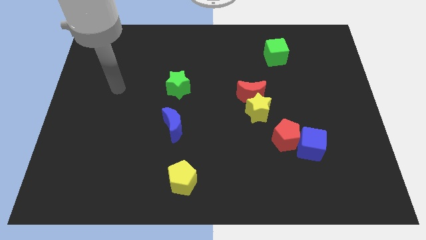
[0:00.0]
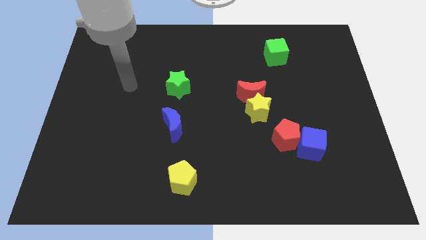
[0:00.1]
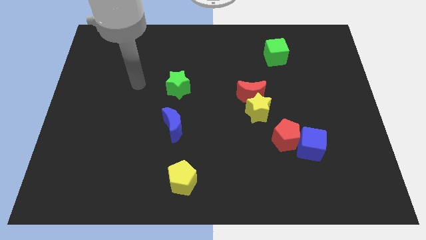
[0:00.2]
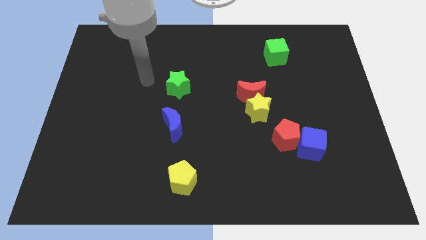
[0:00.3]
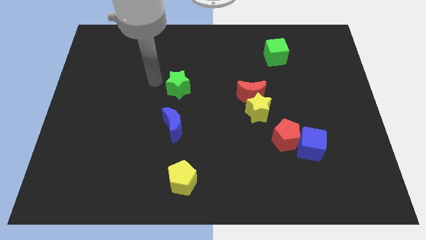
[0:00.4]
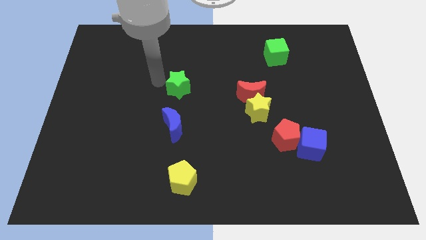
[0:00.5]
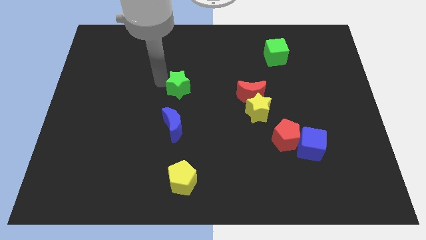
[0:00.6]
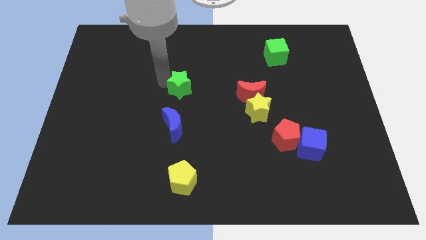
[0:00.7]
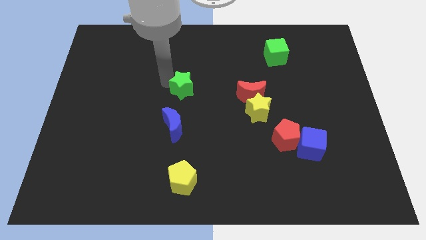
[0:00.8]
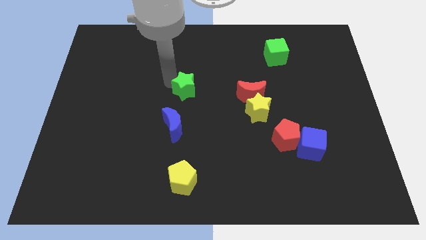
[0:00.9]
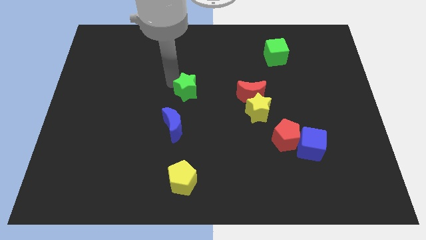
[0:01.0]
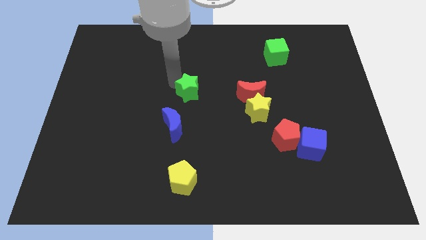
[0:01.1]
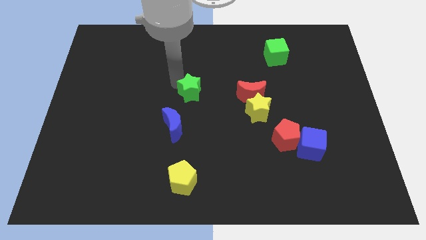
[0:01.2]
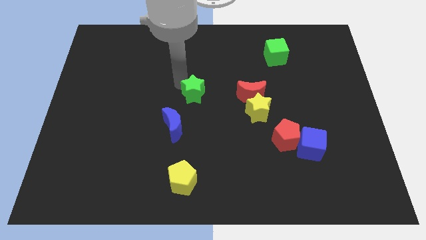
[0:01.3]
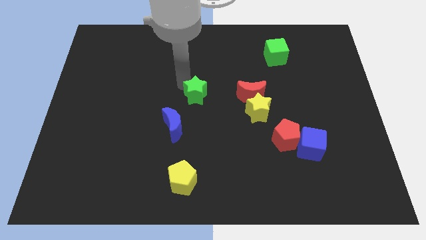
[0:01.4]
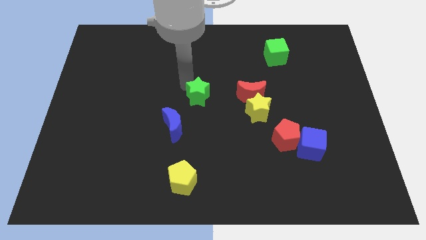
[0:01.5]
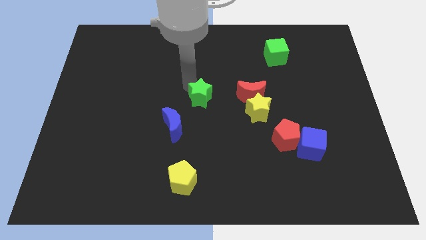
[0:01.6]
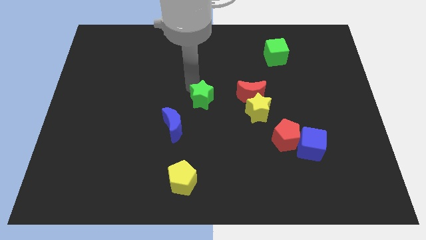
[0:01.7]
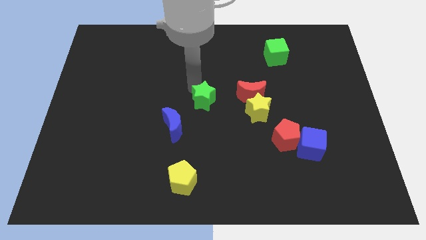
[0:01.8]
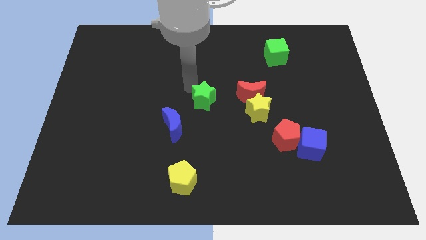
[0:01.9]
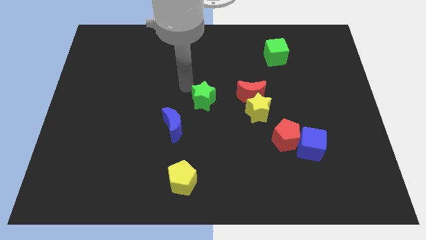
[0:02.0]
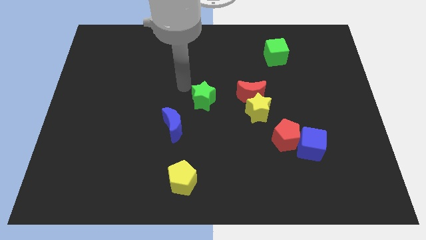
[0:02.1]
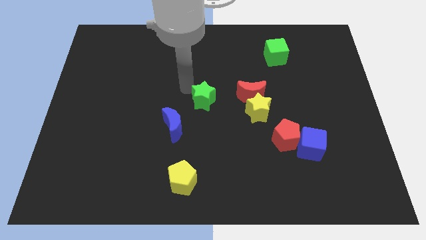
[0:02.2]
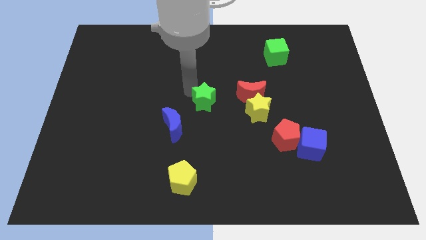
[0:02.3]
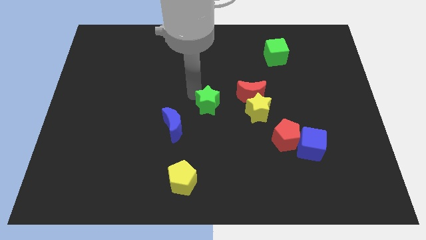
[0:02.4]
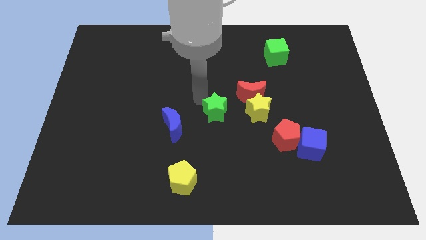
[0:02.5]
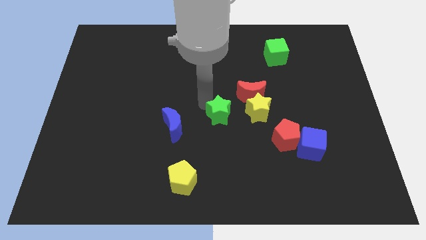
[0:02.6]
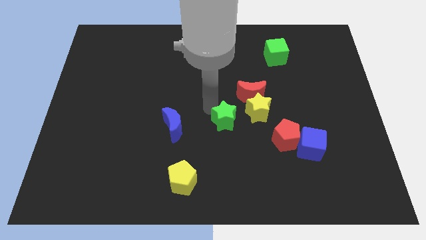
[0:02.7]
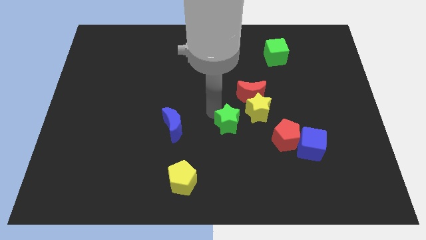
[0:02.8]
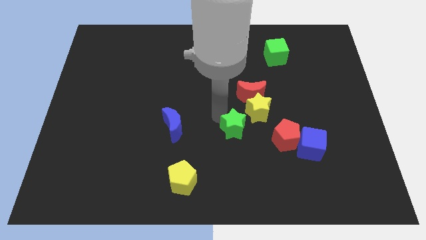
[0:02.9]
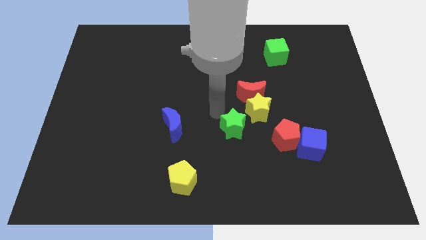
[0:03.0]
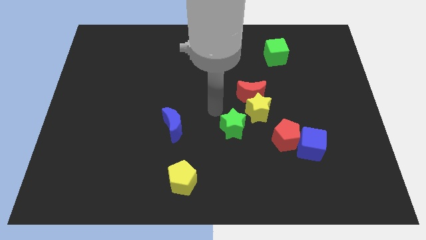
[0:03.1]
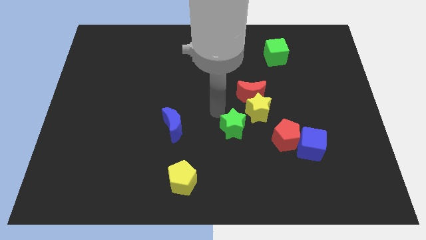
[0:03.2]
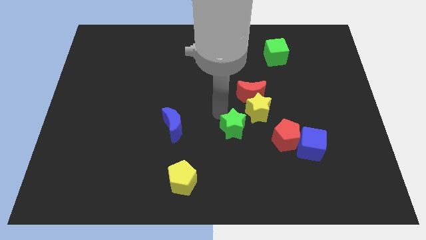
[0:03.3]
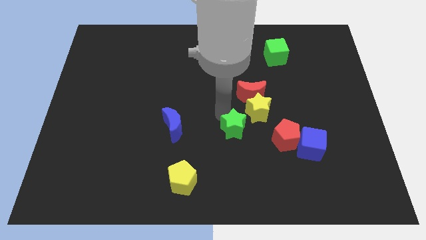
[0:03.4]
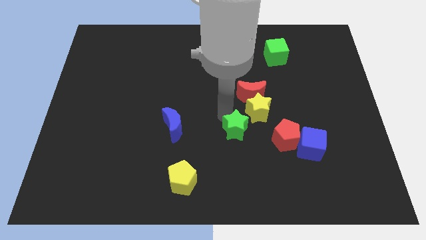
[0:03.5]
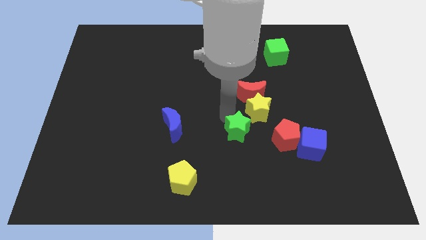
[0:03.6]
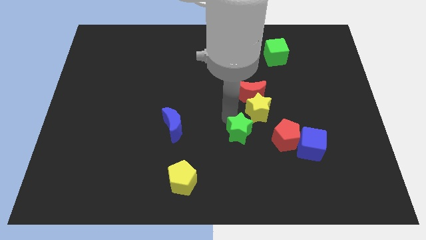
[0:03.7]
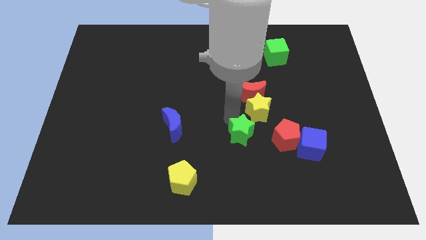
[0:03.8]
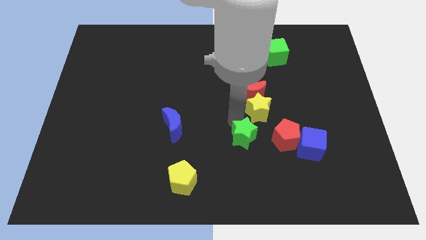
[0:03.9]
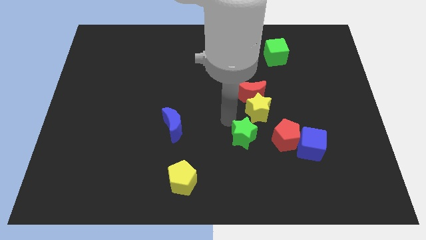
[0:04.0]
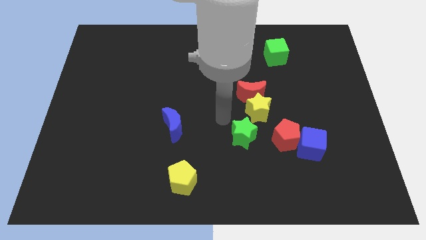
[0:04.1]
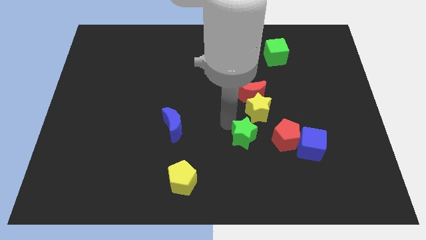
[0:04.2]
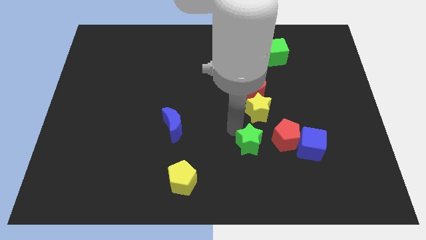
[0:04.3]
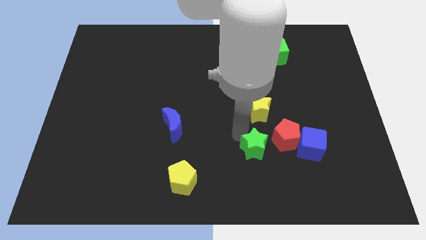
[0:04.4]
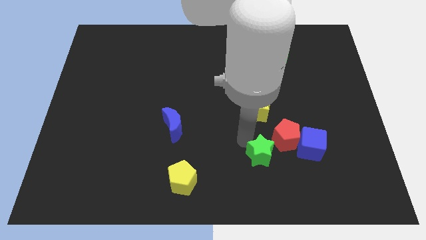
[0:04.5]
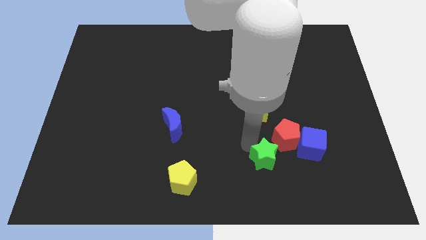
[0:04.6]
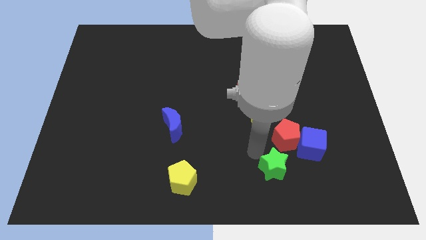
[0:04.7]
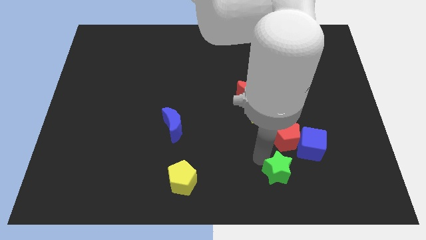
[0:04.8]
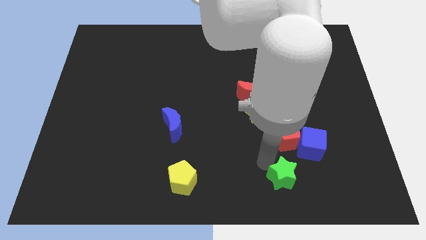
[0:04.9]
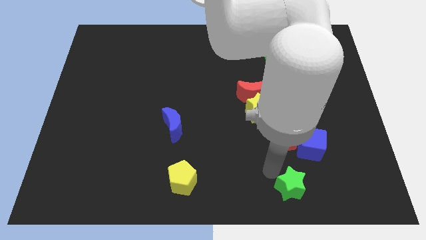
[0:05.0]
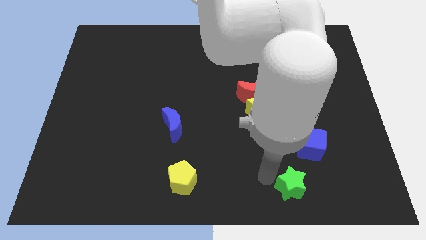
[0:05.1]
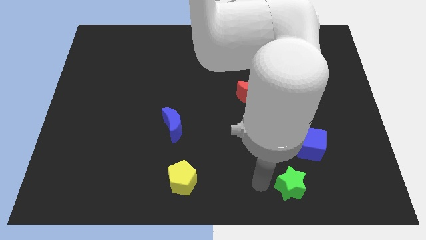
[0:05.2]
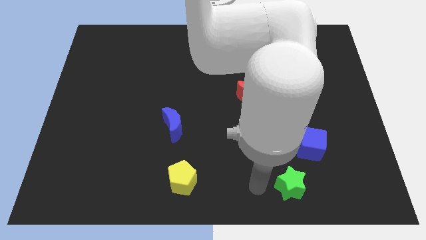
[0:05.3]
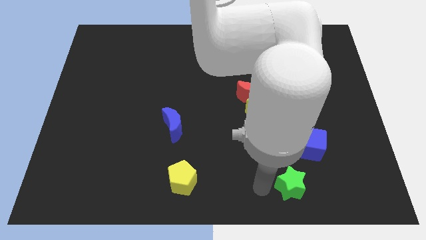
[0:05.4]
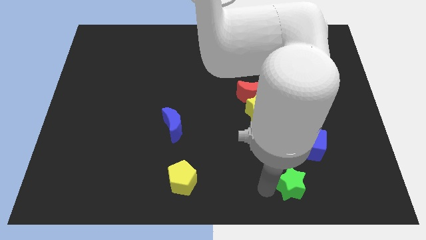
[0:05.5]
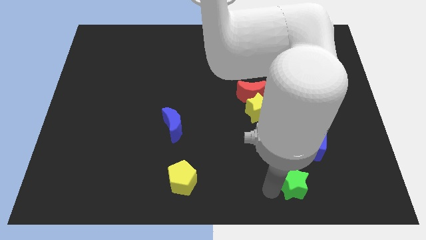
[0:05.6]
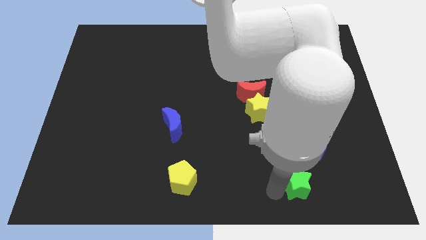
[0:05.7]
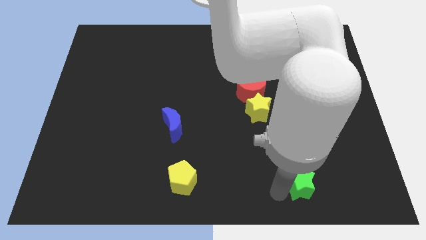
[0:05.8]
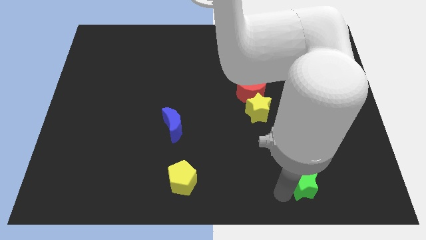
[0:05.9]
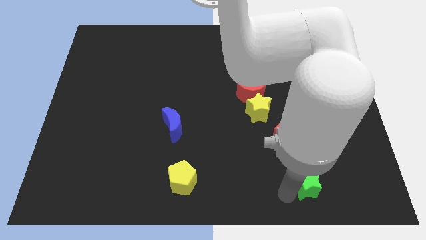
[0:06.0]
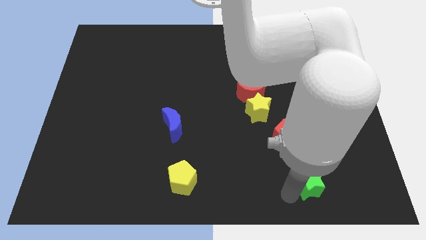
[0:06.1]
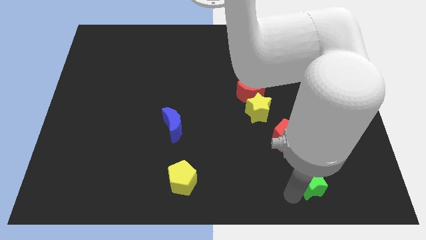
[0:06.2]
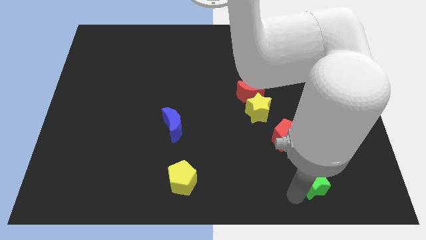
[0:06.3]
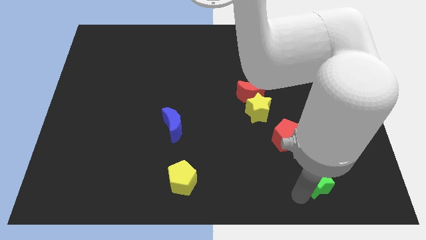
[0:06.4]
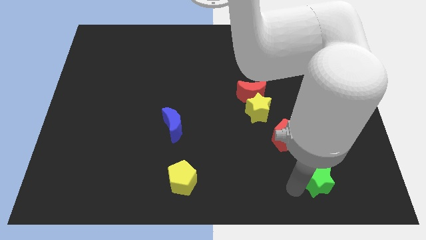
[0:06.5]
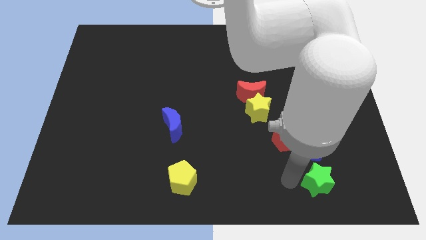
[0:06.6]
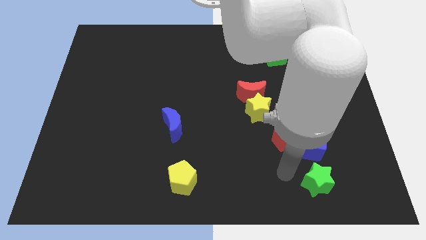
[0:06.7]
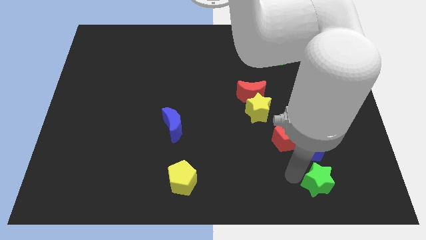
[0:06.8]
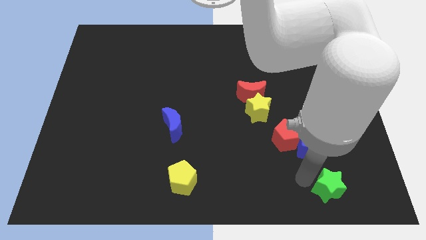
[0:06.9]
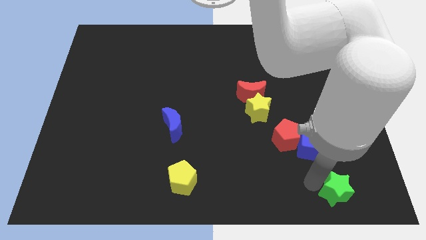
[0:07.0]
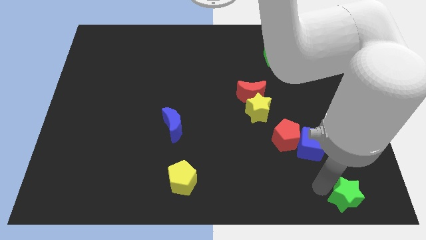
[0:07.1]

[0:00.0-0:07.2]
slide the green star to the bottom right corner
